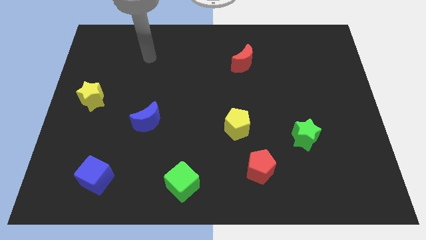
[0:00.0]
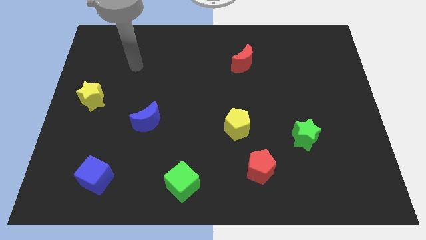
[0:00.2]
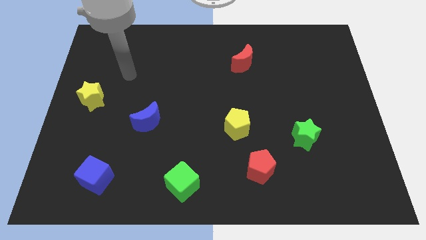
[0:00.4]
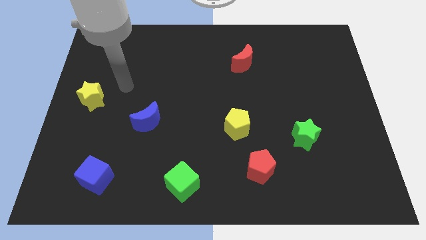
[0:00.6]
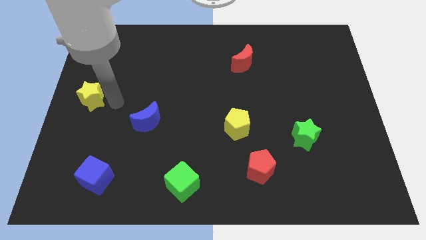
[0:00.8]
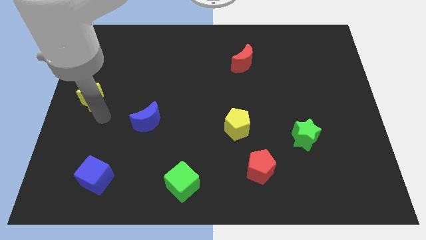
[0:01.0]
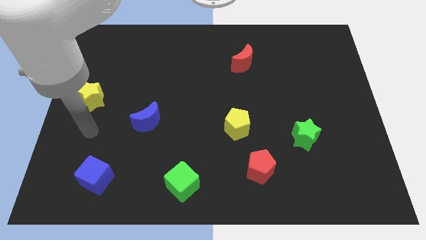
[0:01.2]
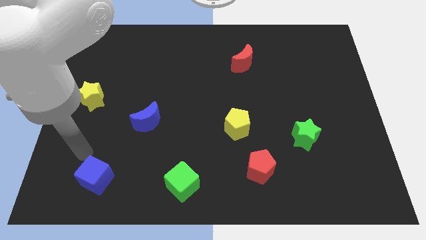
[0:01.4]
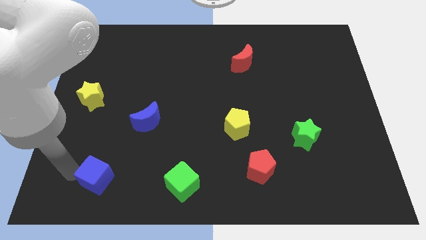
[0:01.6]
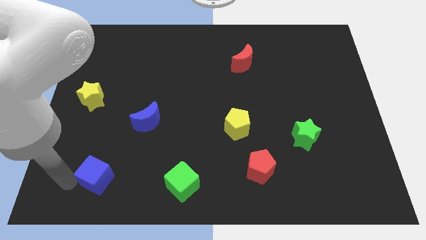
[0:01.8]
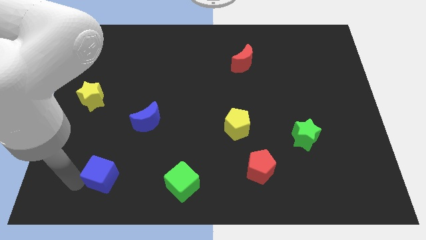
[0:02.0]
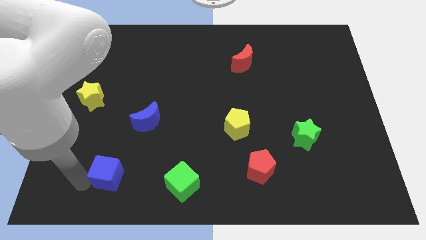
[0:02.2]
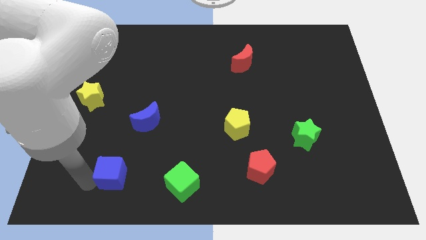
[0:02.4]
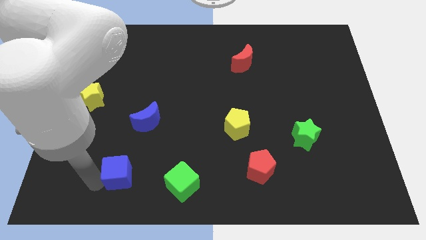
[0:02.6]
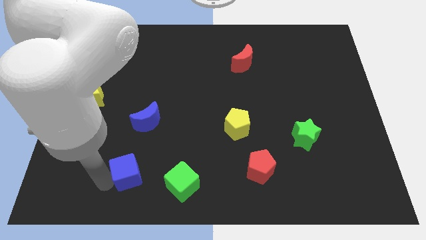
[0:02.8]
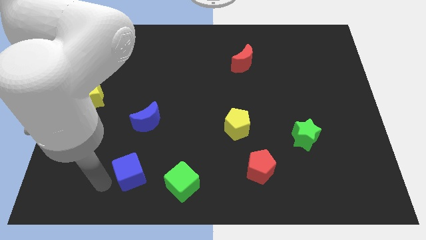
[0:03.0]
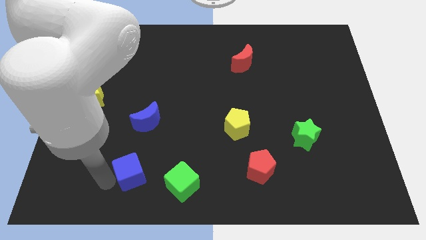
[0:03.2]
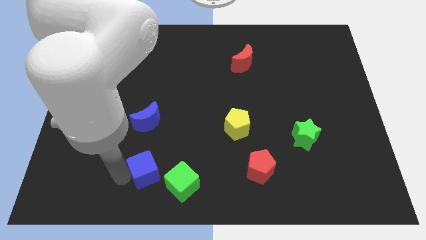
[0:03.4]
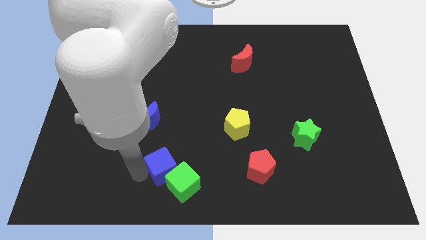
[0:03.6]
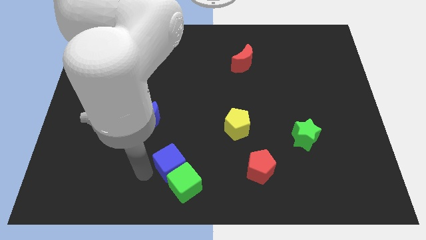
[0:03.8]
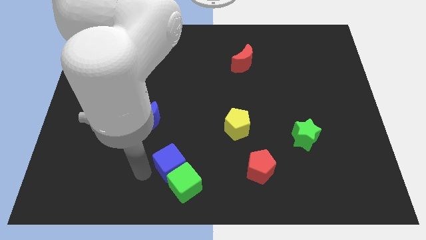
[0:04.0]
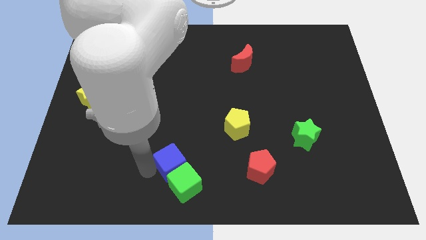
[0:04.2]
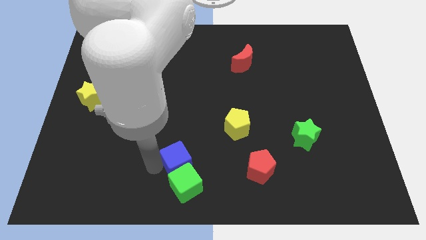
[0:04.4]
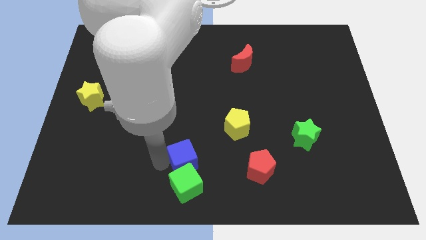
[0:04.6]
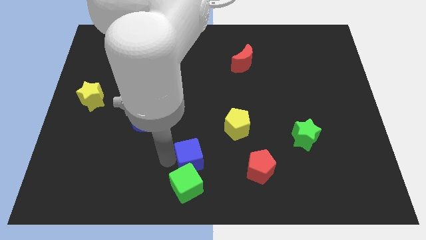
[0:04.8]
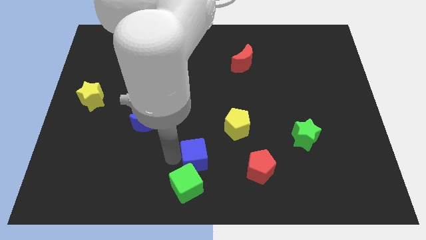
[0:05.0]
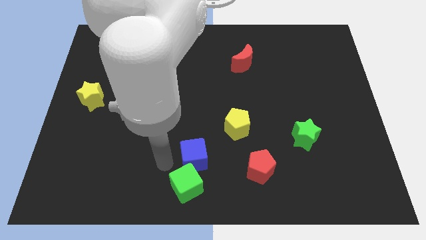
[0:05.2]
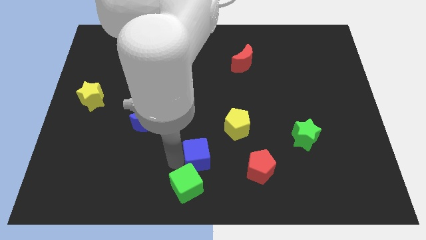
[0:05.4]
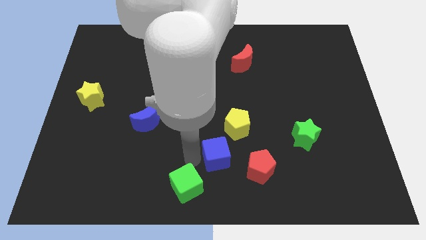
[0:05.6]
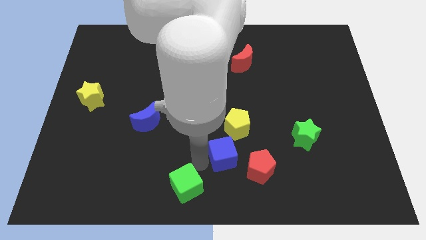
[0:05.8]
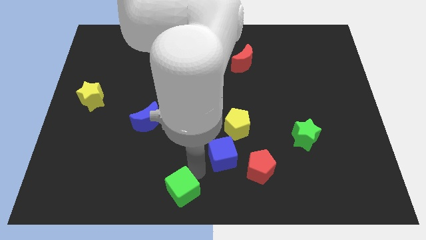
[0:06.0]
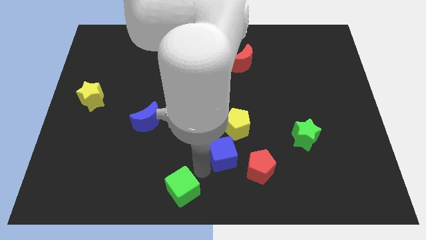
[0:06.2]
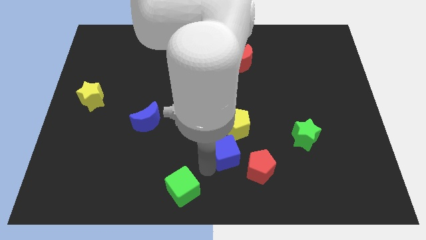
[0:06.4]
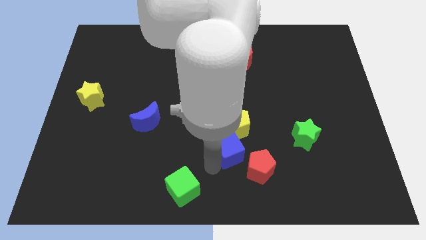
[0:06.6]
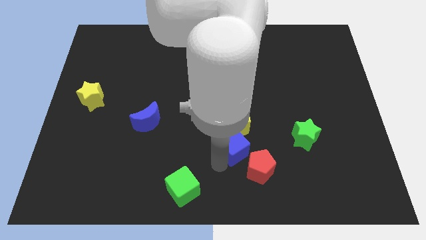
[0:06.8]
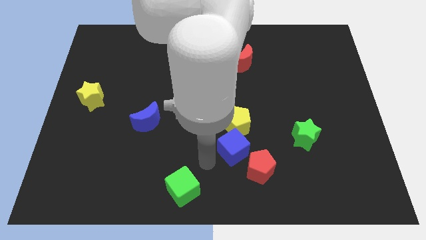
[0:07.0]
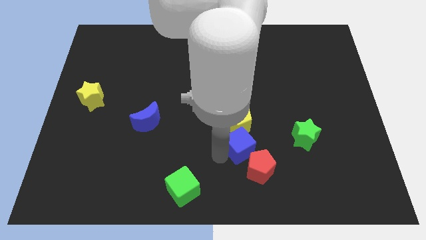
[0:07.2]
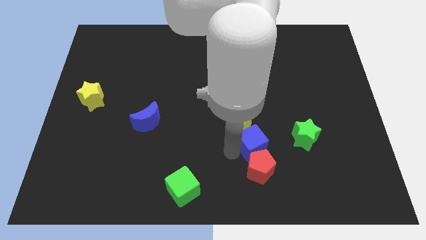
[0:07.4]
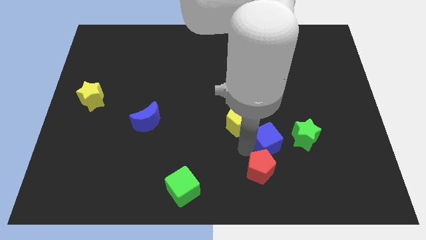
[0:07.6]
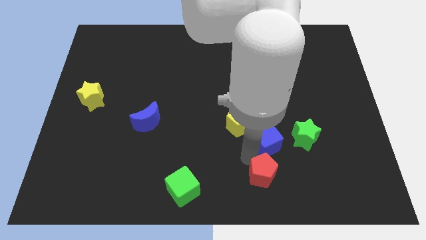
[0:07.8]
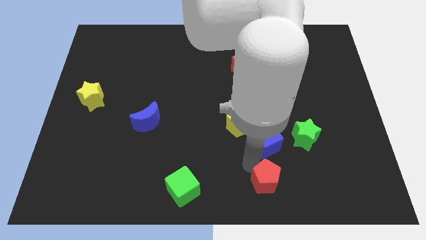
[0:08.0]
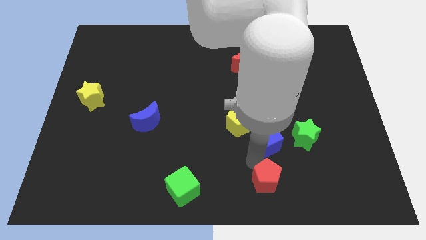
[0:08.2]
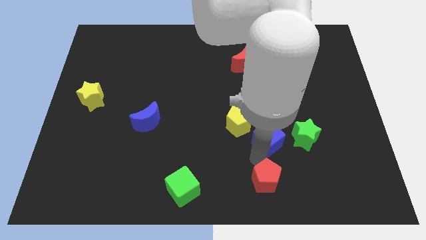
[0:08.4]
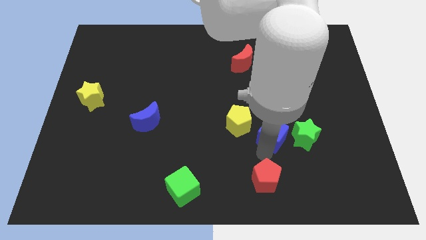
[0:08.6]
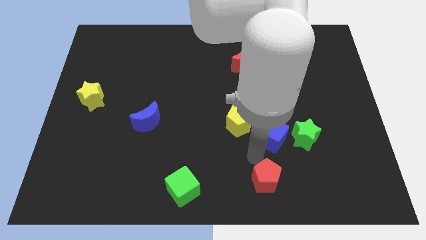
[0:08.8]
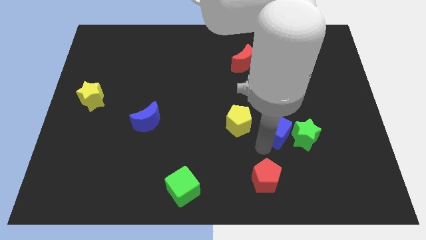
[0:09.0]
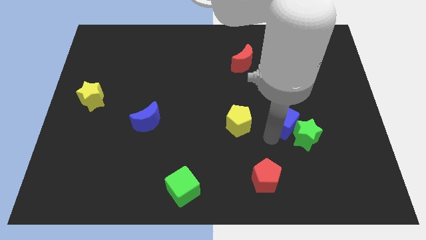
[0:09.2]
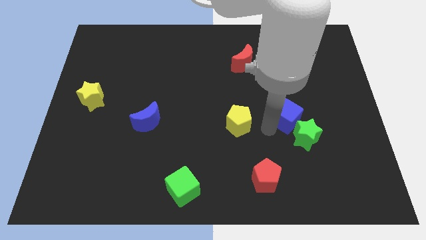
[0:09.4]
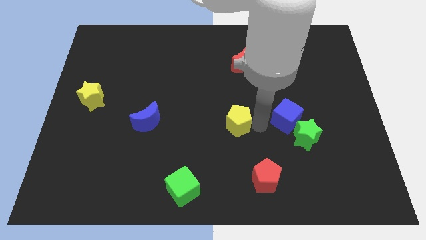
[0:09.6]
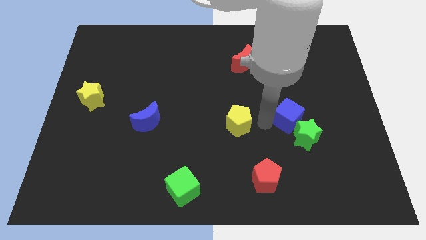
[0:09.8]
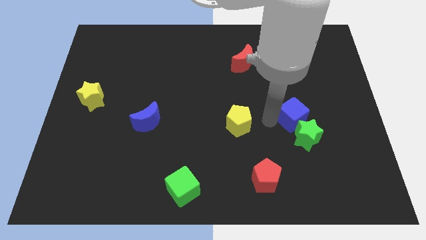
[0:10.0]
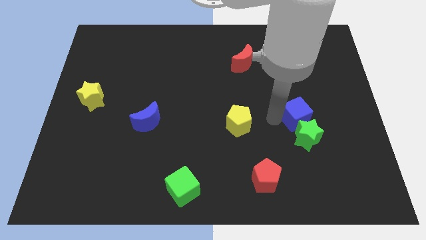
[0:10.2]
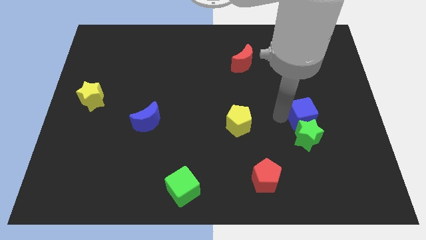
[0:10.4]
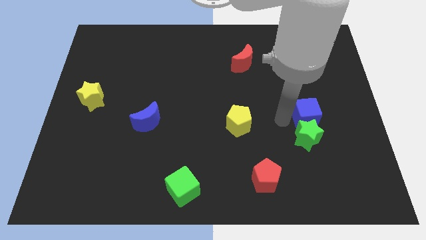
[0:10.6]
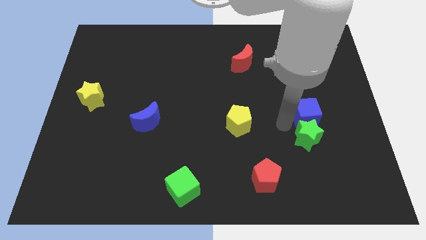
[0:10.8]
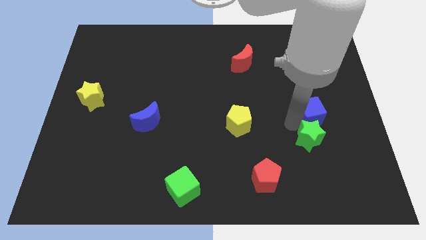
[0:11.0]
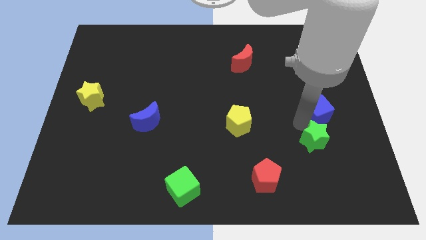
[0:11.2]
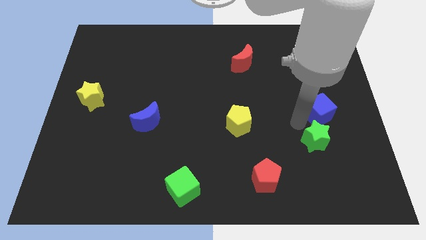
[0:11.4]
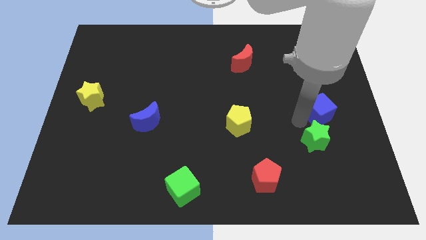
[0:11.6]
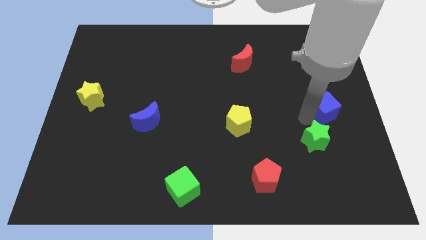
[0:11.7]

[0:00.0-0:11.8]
slide the blue cube to the center right

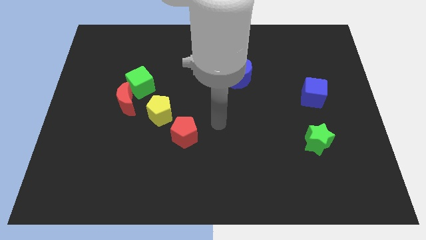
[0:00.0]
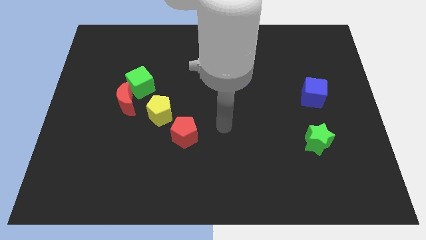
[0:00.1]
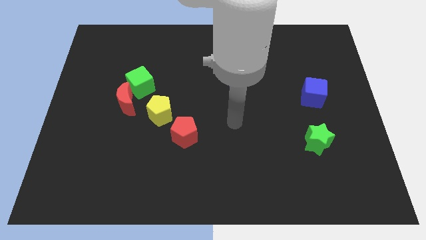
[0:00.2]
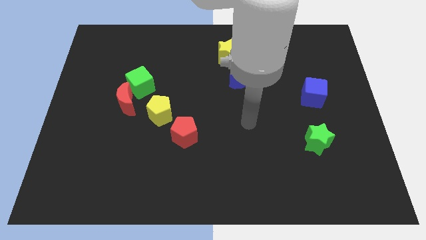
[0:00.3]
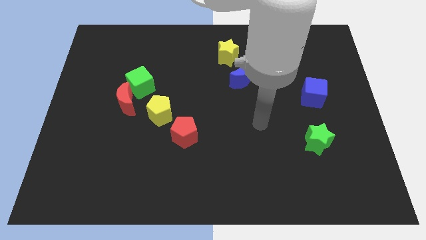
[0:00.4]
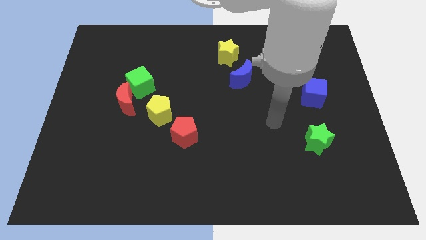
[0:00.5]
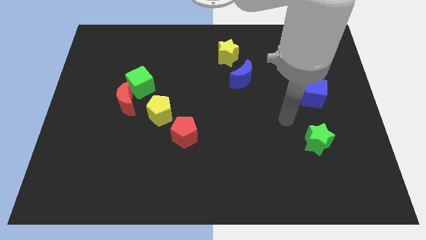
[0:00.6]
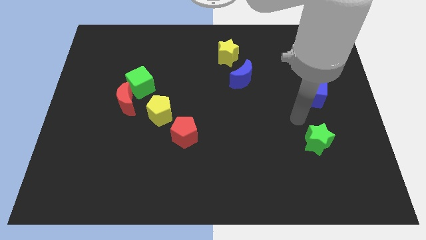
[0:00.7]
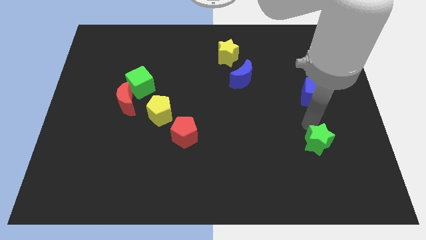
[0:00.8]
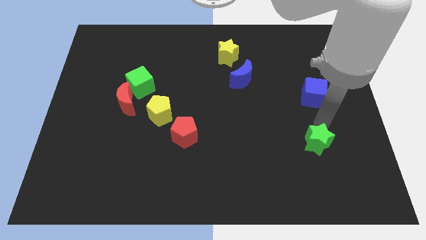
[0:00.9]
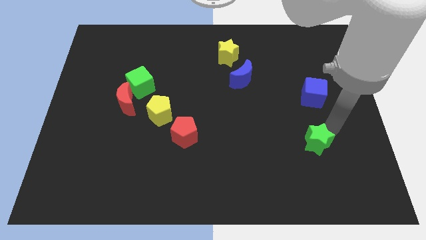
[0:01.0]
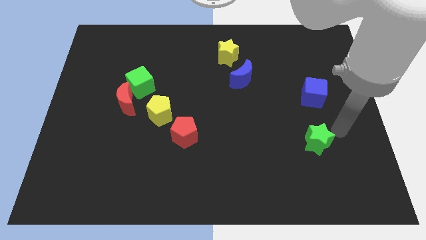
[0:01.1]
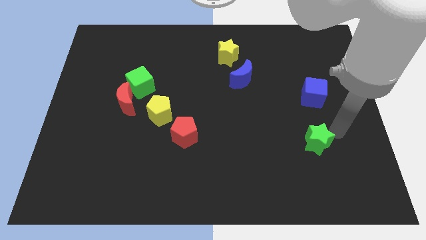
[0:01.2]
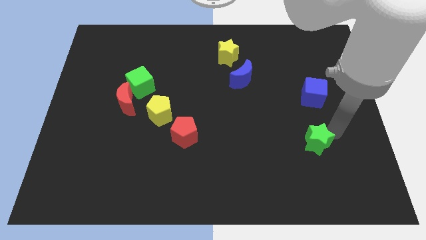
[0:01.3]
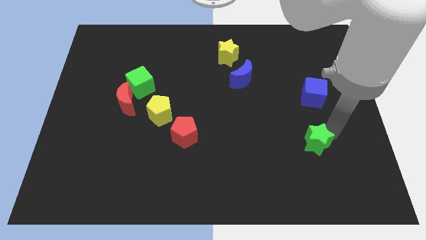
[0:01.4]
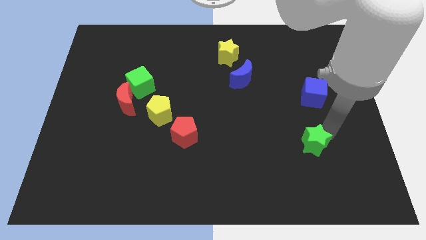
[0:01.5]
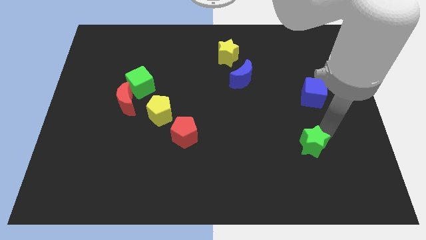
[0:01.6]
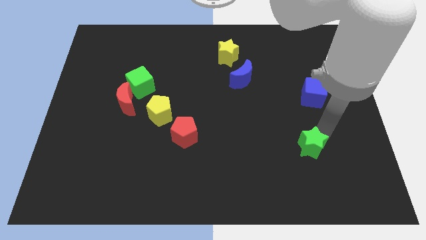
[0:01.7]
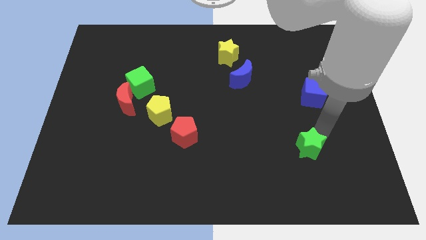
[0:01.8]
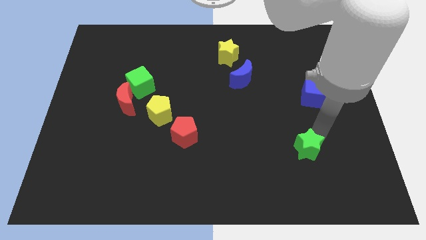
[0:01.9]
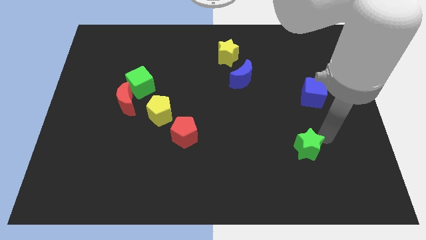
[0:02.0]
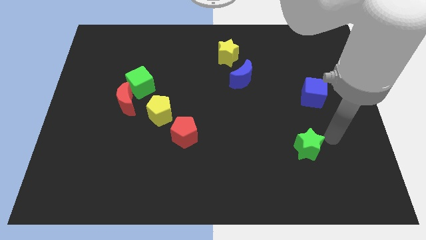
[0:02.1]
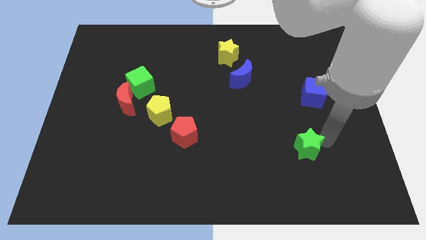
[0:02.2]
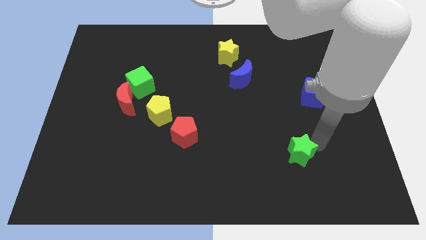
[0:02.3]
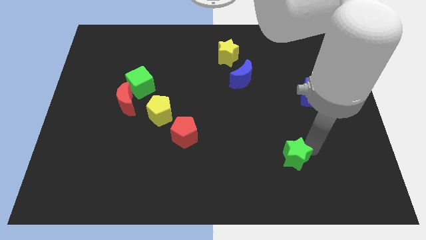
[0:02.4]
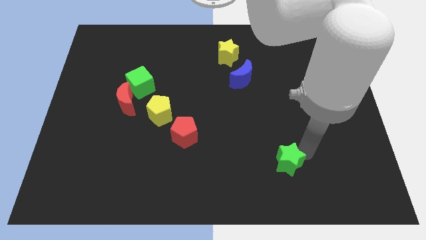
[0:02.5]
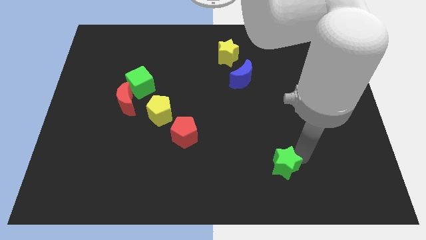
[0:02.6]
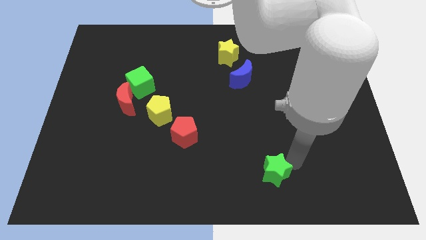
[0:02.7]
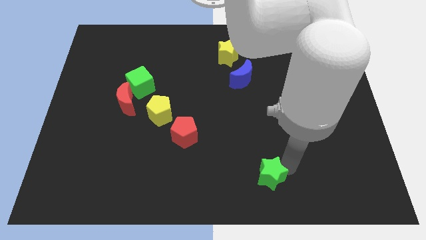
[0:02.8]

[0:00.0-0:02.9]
put the green star to the bottom side
